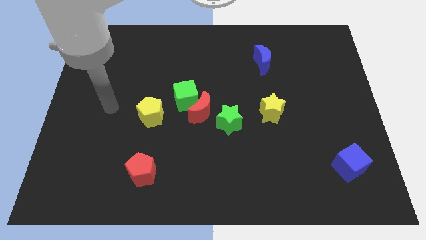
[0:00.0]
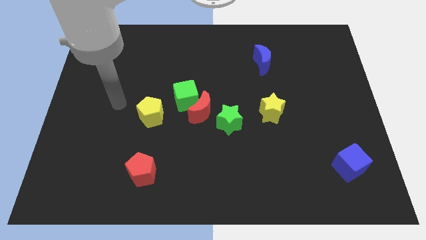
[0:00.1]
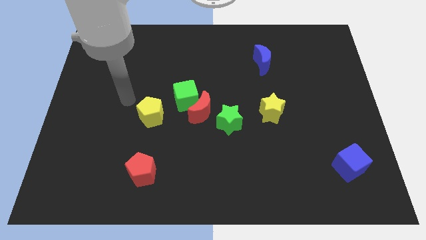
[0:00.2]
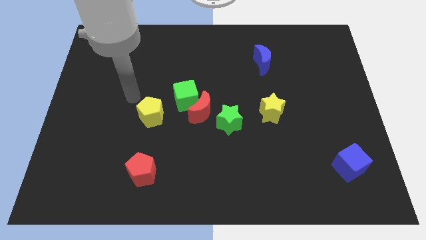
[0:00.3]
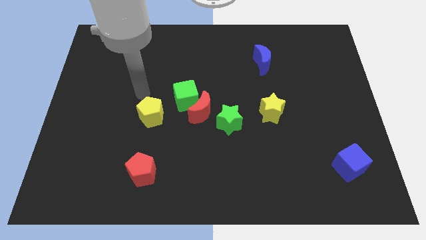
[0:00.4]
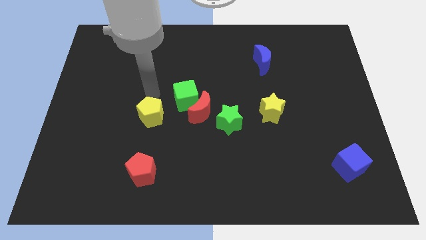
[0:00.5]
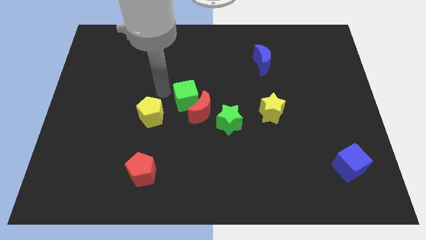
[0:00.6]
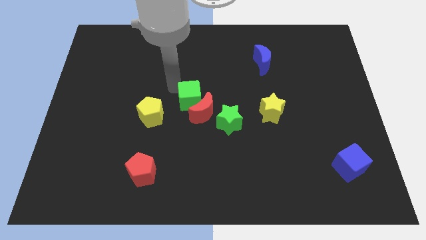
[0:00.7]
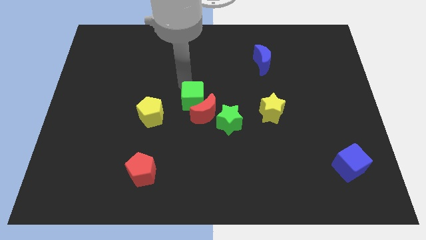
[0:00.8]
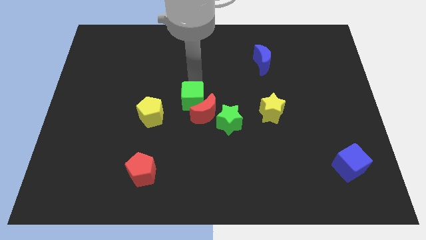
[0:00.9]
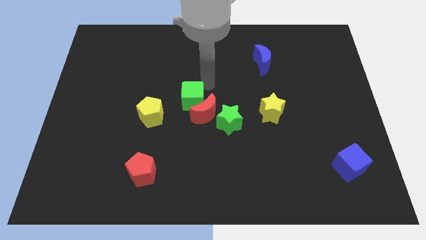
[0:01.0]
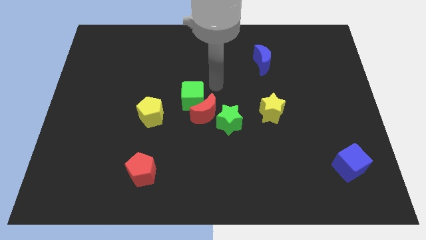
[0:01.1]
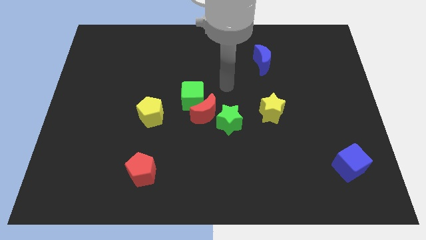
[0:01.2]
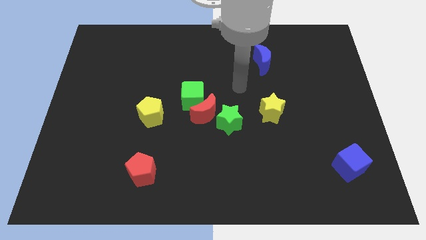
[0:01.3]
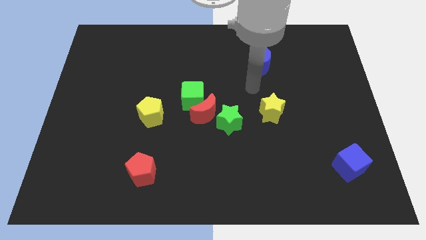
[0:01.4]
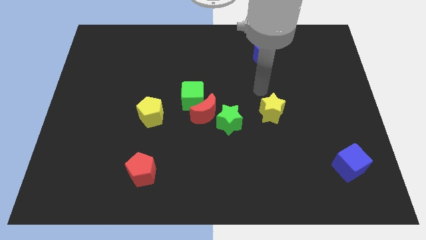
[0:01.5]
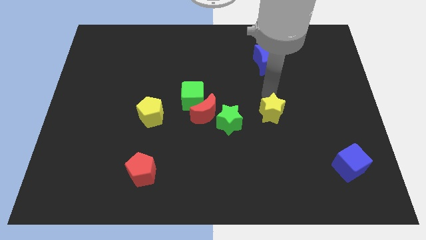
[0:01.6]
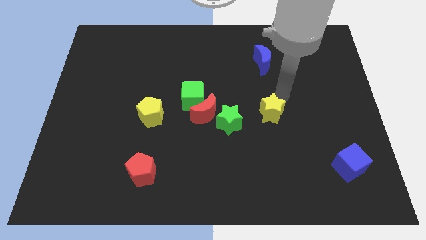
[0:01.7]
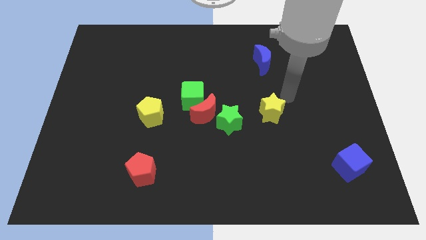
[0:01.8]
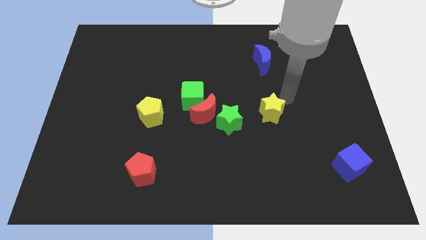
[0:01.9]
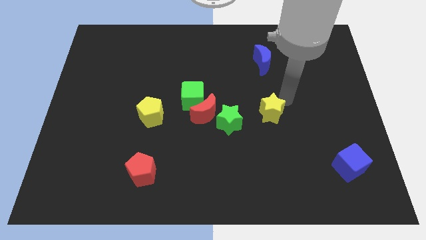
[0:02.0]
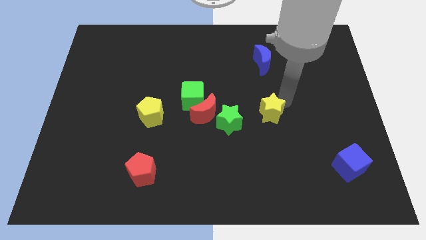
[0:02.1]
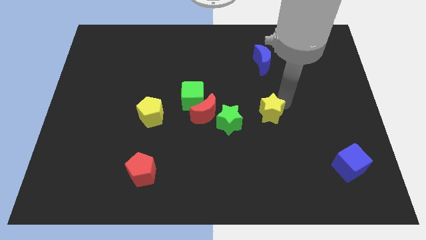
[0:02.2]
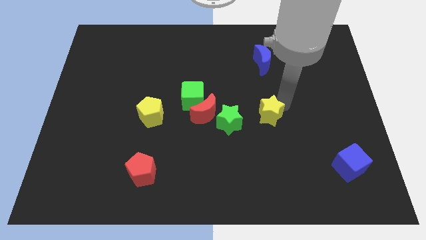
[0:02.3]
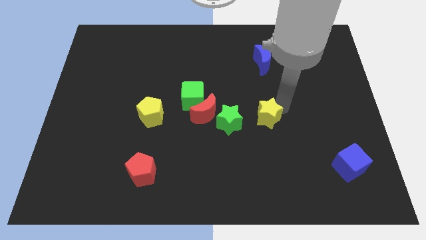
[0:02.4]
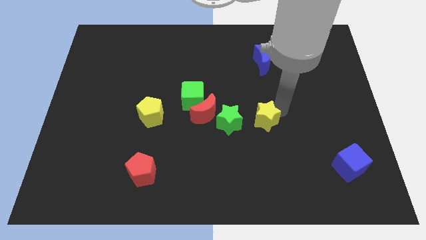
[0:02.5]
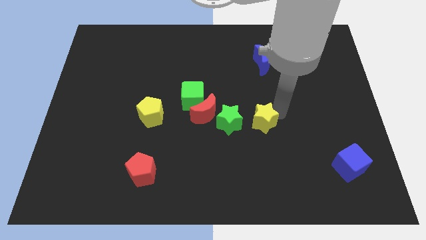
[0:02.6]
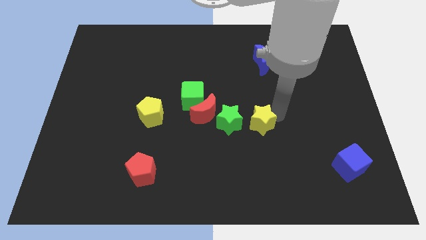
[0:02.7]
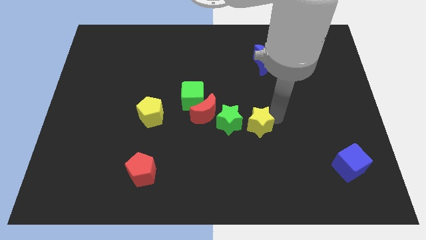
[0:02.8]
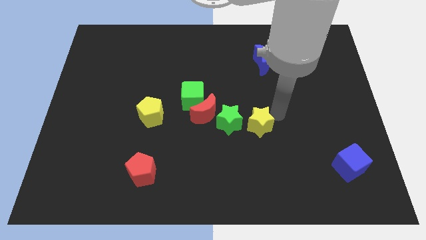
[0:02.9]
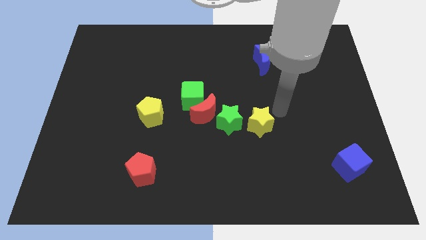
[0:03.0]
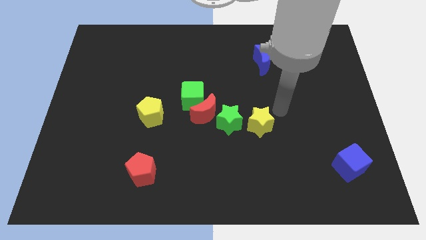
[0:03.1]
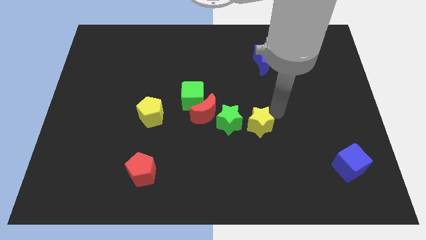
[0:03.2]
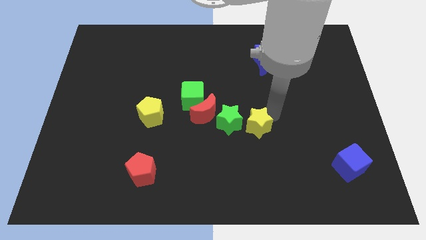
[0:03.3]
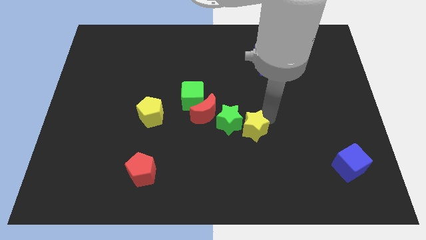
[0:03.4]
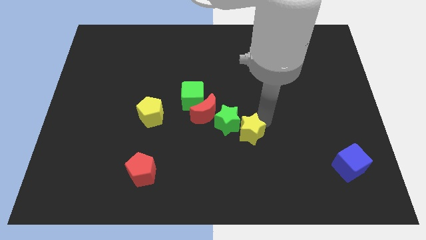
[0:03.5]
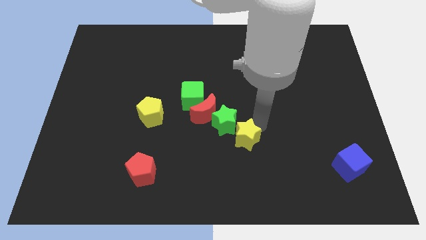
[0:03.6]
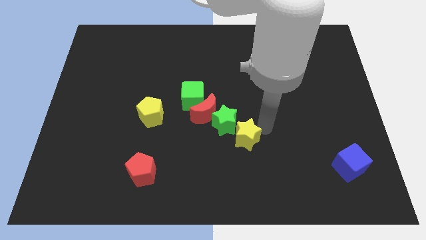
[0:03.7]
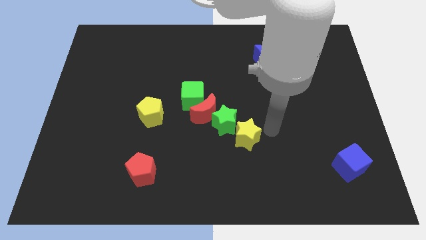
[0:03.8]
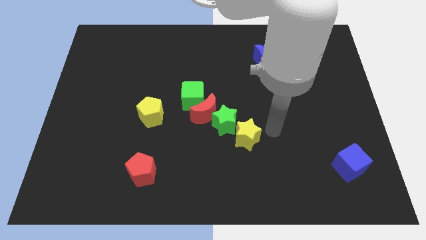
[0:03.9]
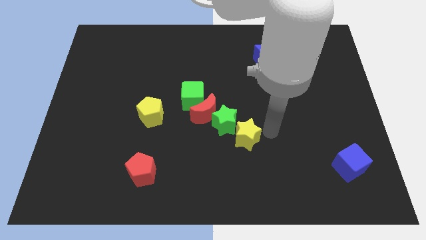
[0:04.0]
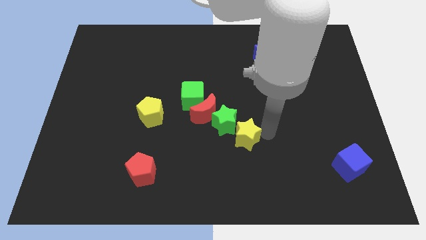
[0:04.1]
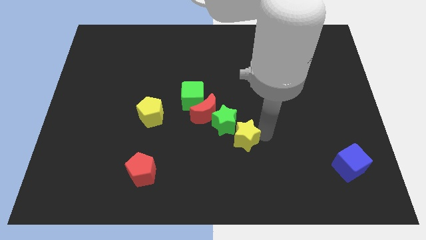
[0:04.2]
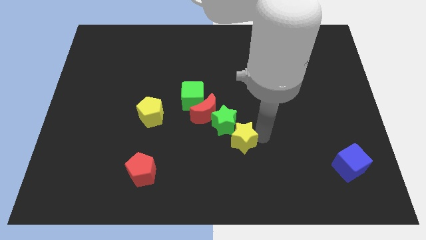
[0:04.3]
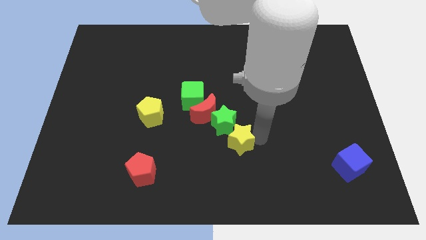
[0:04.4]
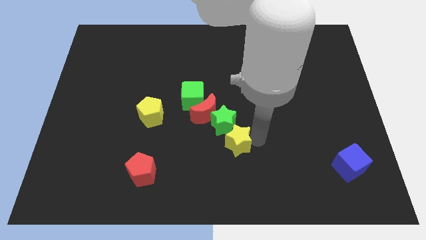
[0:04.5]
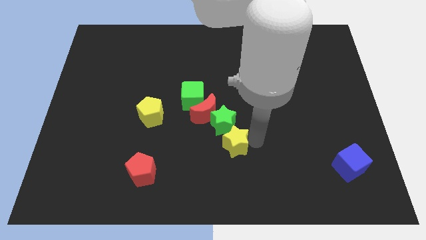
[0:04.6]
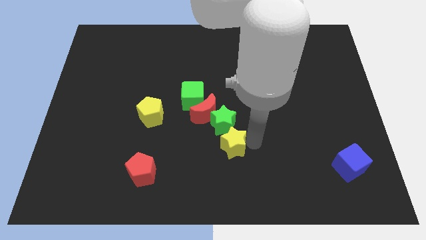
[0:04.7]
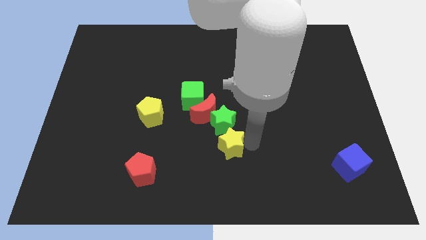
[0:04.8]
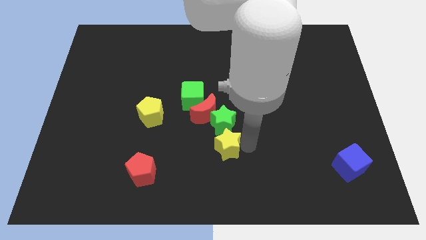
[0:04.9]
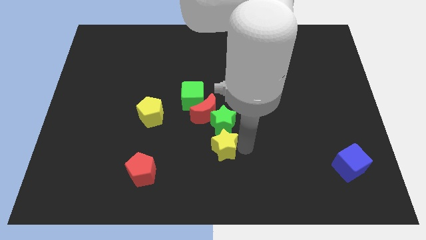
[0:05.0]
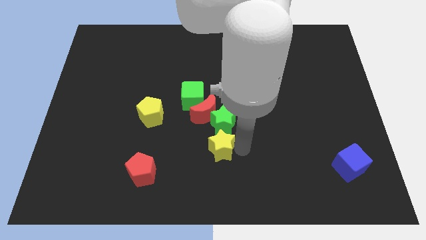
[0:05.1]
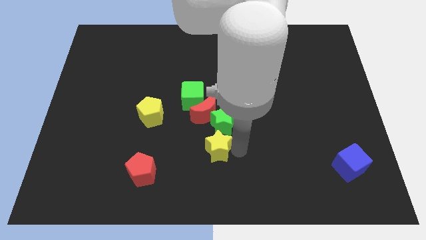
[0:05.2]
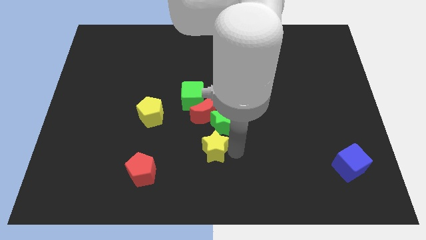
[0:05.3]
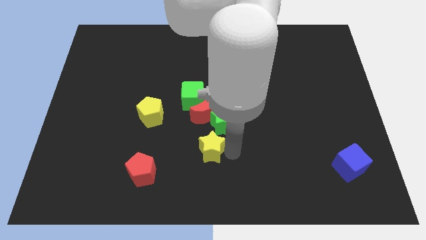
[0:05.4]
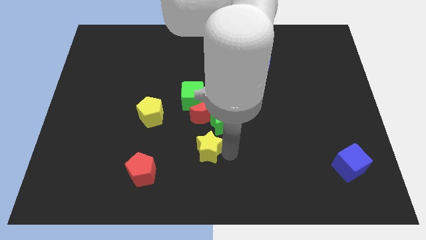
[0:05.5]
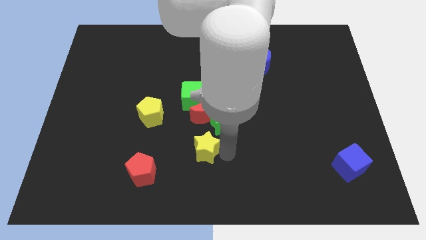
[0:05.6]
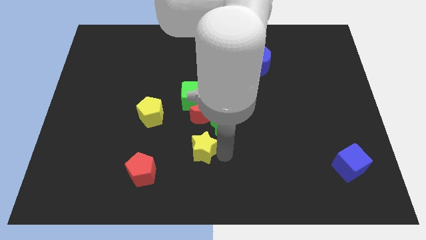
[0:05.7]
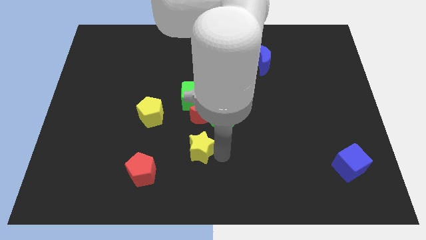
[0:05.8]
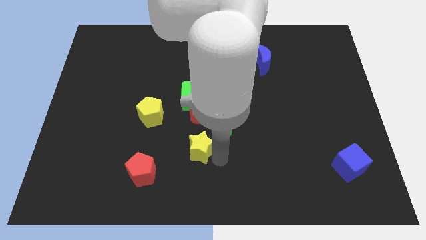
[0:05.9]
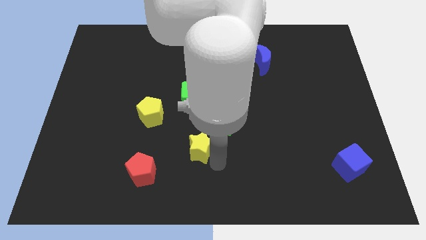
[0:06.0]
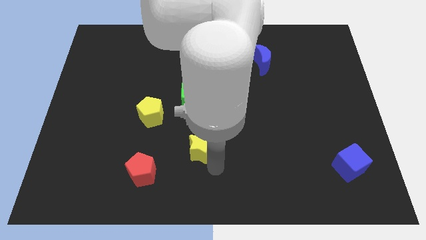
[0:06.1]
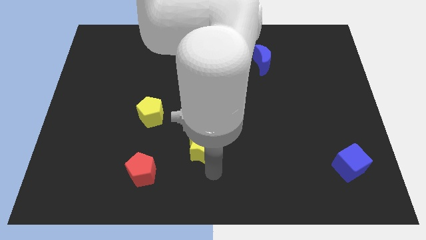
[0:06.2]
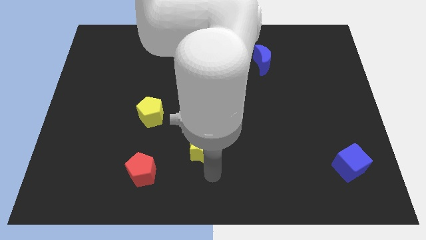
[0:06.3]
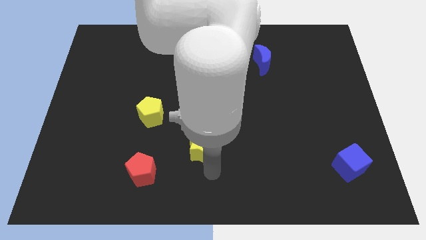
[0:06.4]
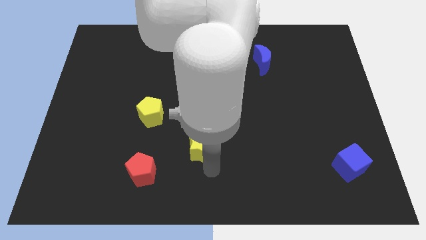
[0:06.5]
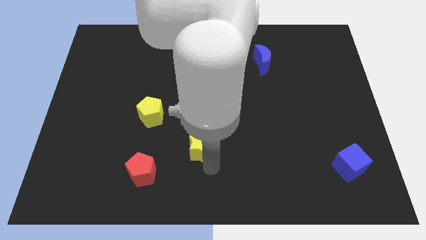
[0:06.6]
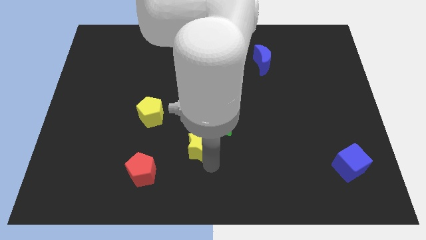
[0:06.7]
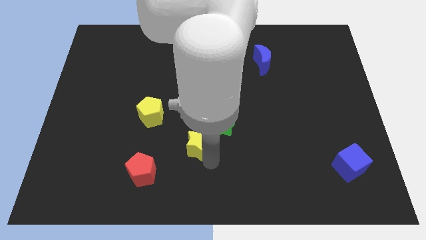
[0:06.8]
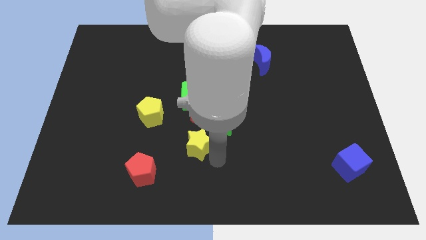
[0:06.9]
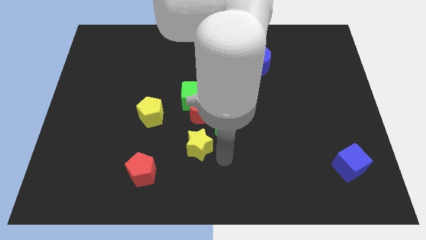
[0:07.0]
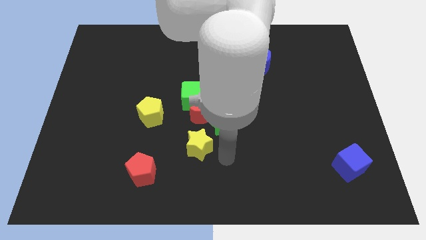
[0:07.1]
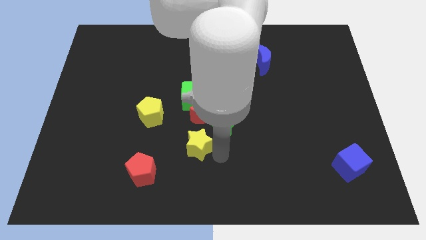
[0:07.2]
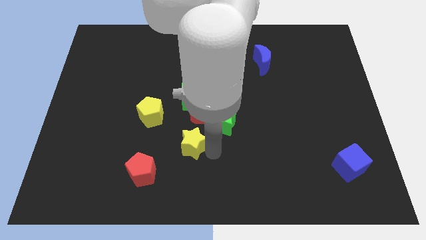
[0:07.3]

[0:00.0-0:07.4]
slide the yellow star diagonally down and to the right of the yellow pentagon
